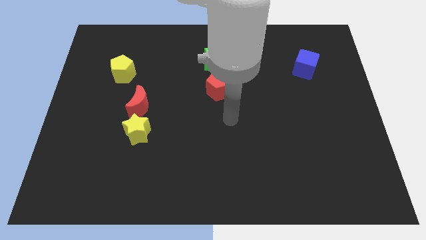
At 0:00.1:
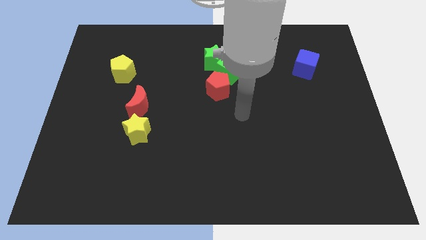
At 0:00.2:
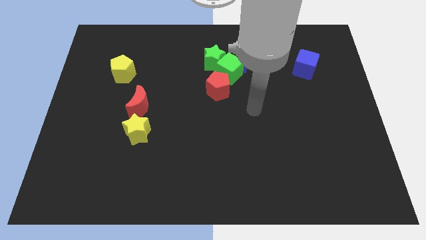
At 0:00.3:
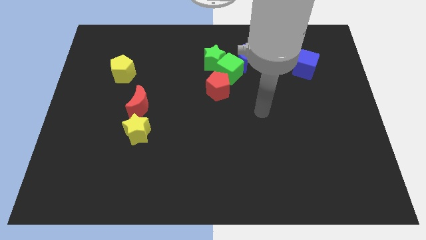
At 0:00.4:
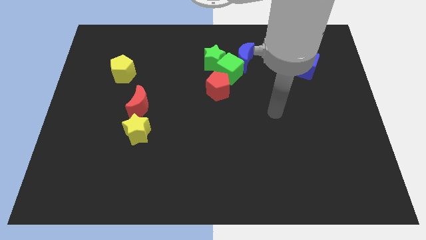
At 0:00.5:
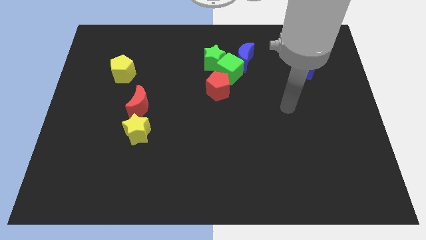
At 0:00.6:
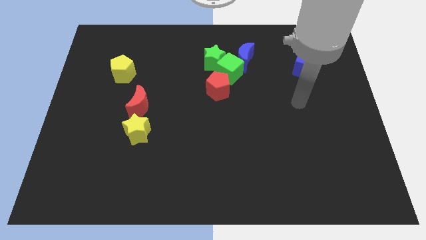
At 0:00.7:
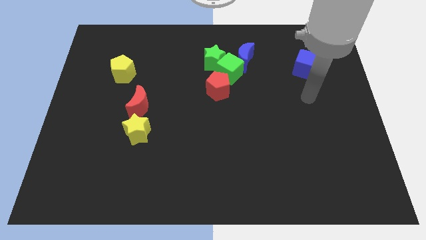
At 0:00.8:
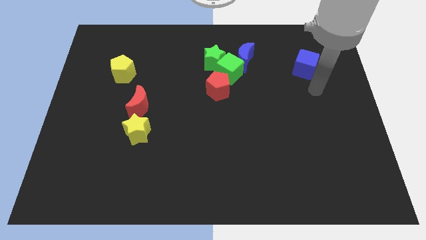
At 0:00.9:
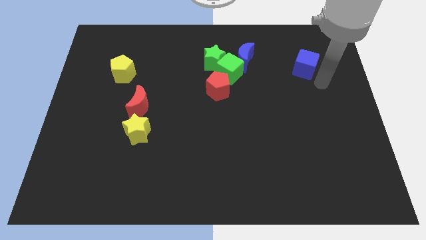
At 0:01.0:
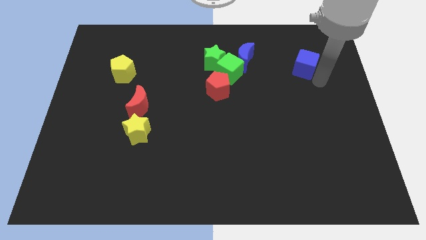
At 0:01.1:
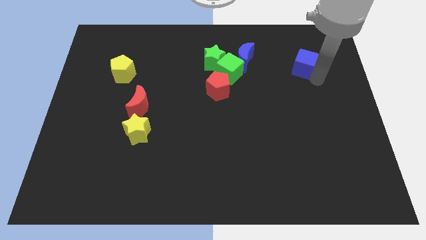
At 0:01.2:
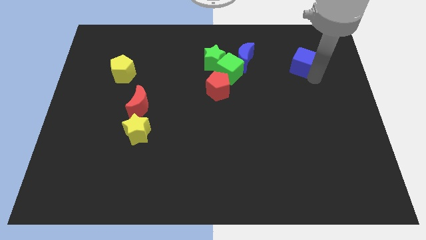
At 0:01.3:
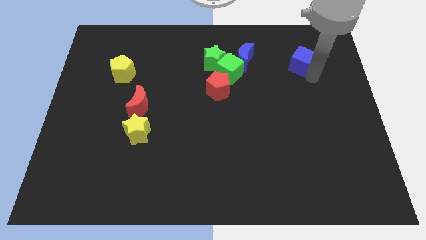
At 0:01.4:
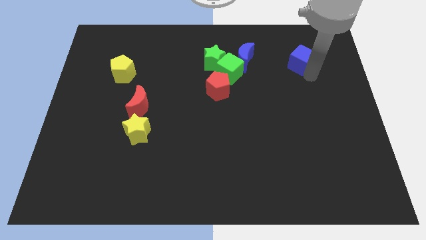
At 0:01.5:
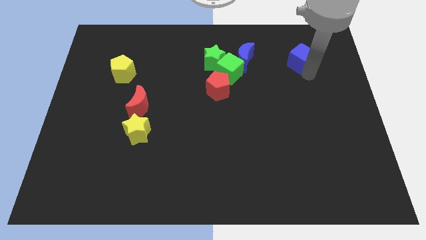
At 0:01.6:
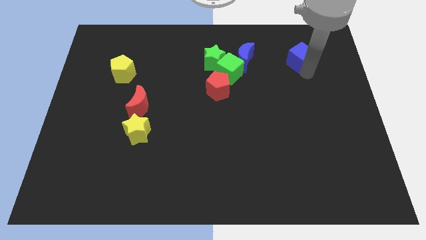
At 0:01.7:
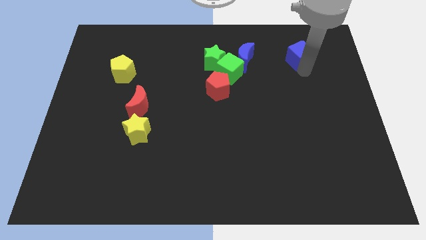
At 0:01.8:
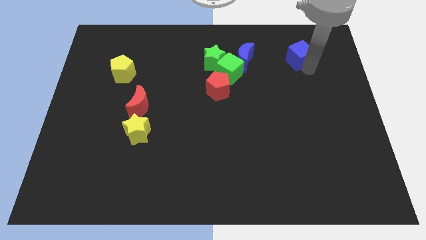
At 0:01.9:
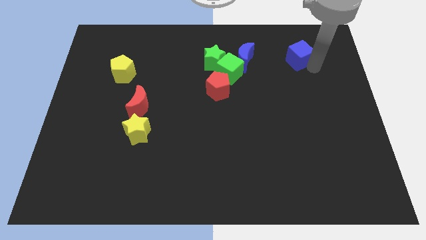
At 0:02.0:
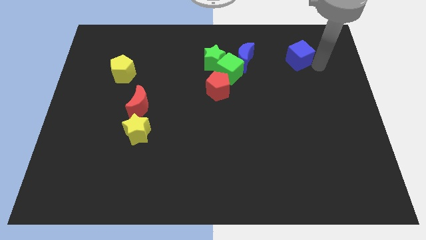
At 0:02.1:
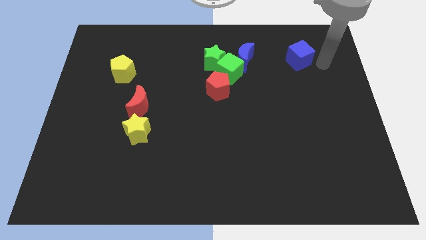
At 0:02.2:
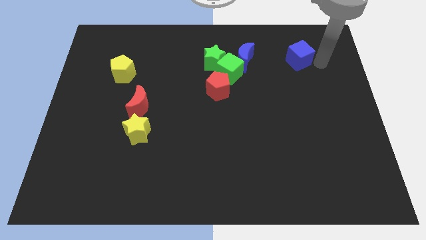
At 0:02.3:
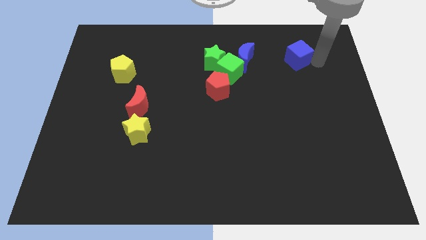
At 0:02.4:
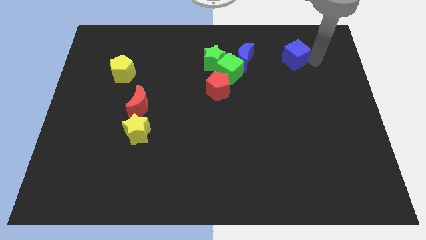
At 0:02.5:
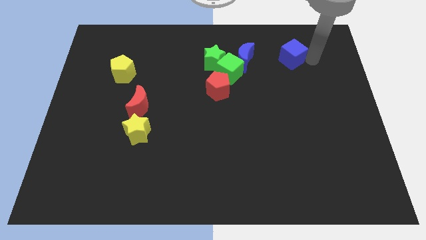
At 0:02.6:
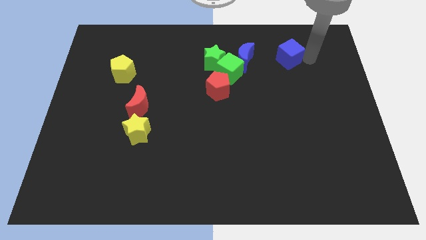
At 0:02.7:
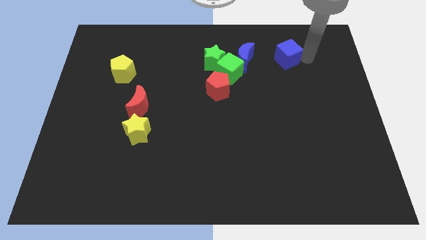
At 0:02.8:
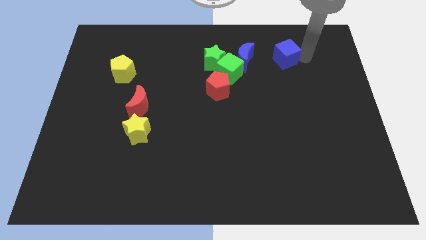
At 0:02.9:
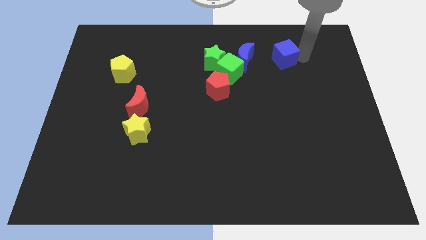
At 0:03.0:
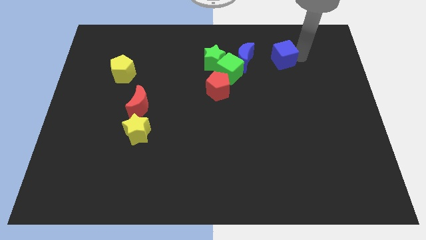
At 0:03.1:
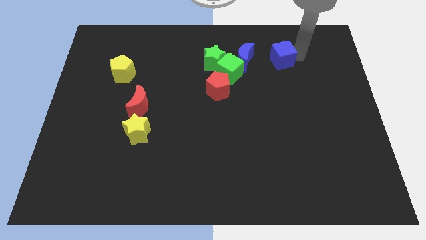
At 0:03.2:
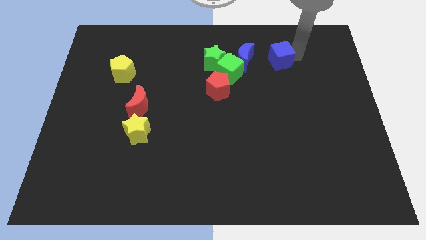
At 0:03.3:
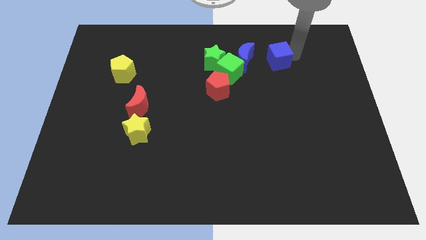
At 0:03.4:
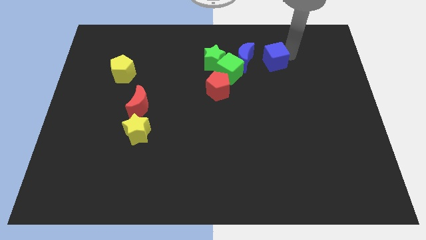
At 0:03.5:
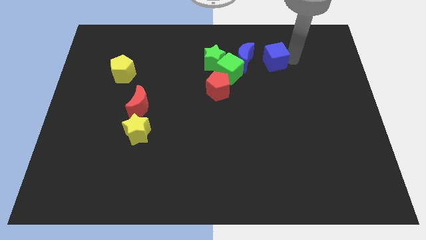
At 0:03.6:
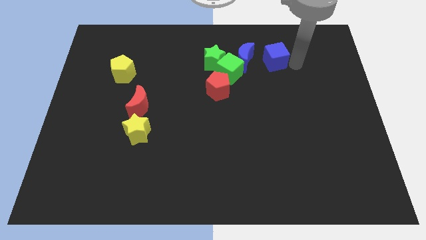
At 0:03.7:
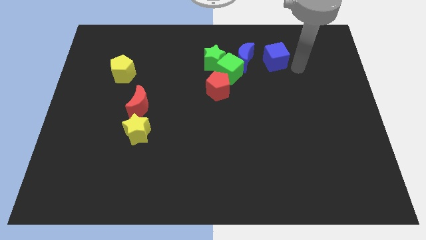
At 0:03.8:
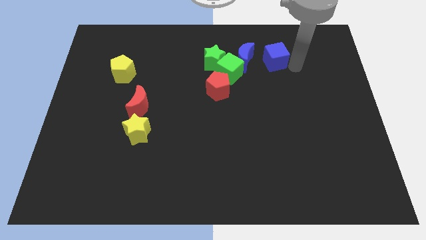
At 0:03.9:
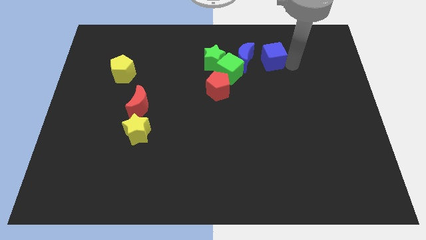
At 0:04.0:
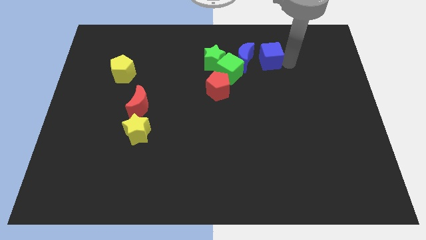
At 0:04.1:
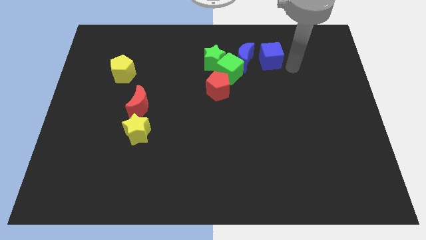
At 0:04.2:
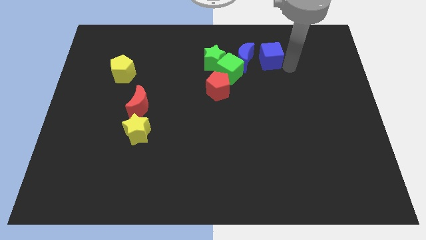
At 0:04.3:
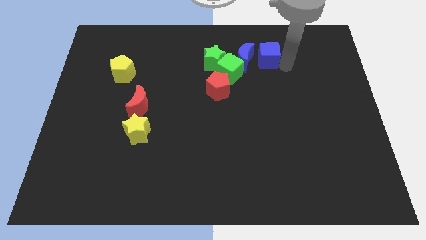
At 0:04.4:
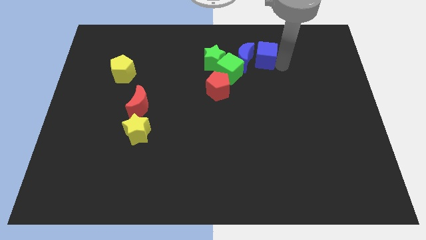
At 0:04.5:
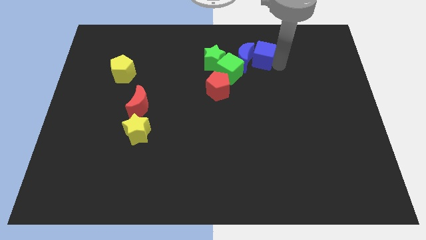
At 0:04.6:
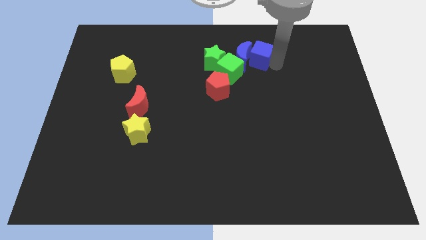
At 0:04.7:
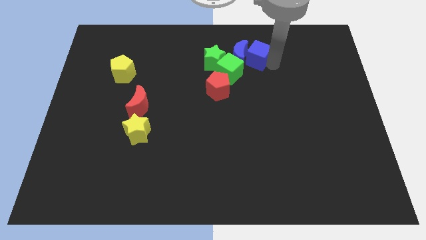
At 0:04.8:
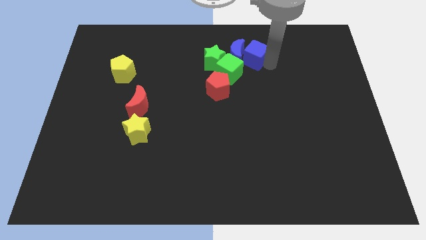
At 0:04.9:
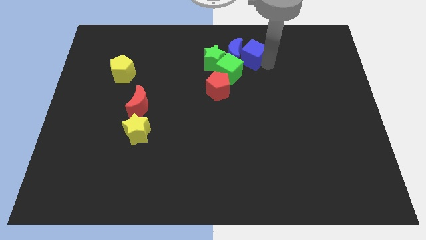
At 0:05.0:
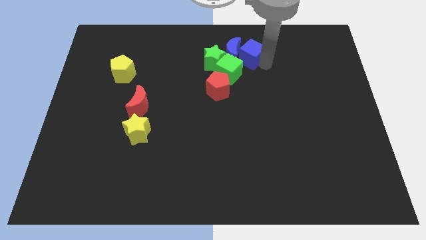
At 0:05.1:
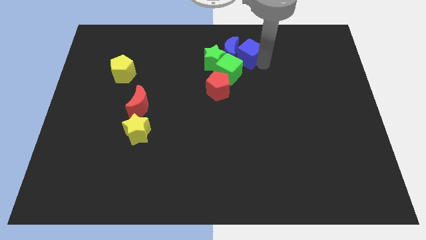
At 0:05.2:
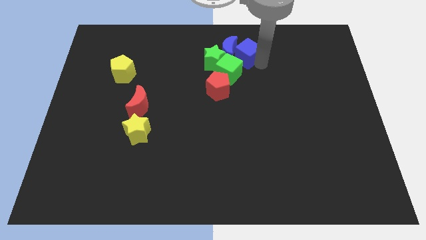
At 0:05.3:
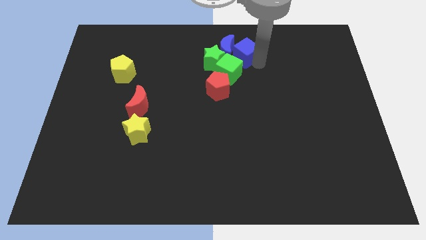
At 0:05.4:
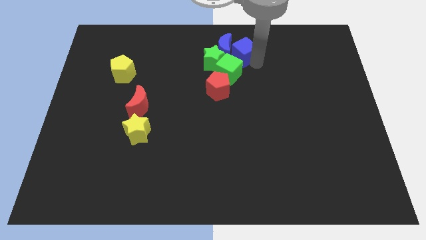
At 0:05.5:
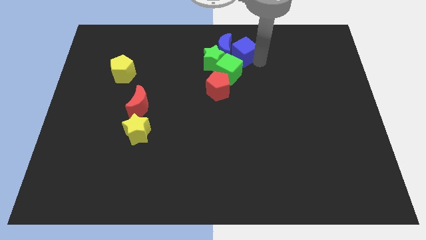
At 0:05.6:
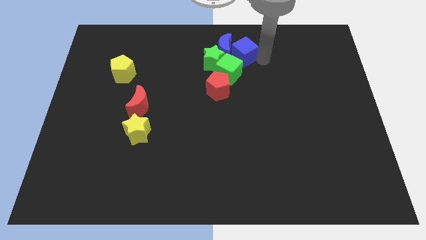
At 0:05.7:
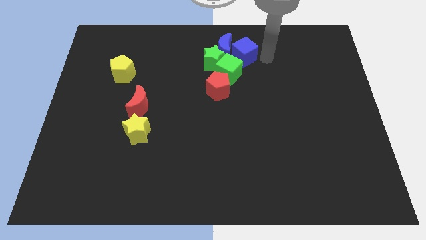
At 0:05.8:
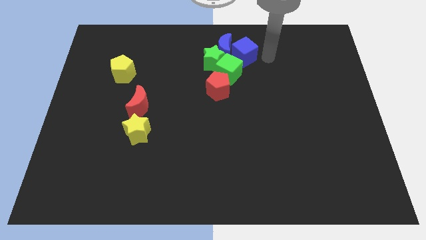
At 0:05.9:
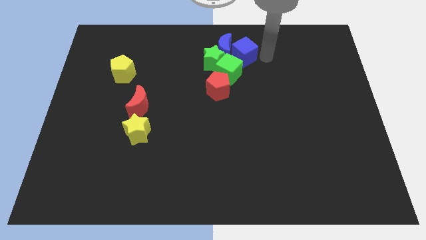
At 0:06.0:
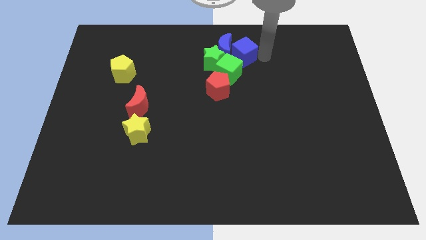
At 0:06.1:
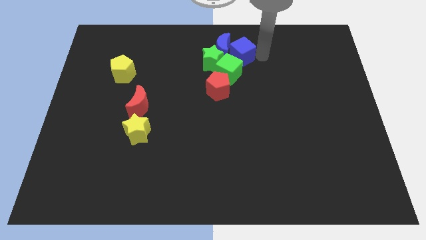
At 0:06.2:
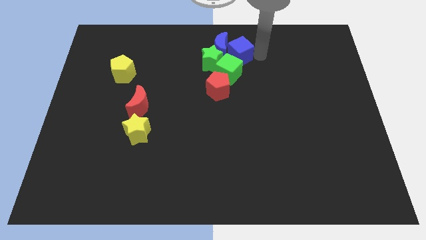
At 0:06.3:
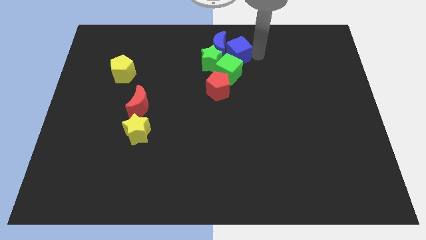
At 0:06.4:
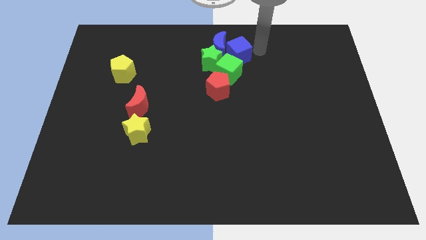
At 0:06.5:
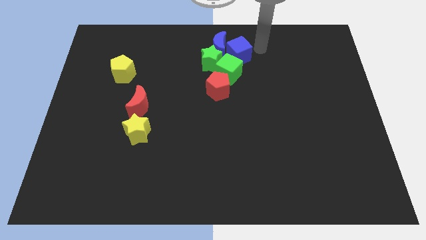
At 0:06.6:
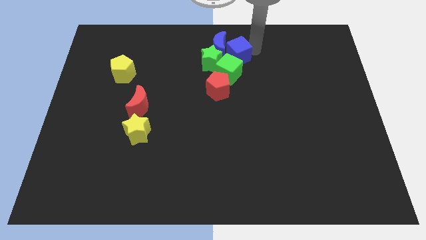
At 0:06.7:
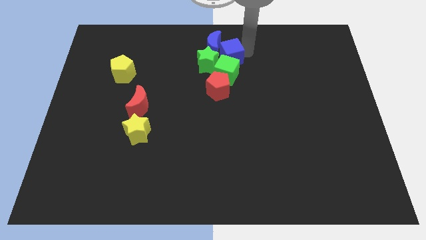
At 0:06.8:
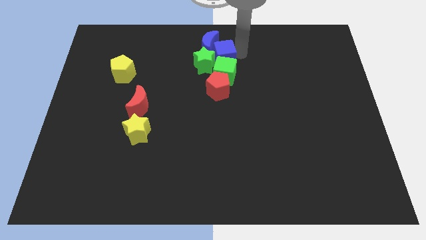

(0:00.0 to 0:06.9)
slide the blue cube close to the green star
